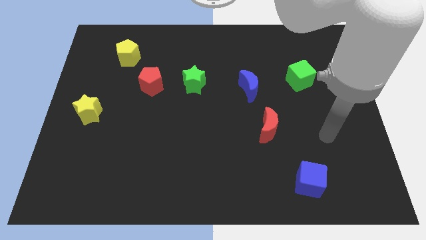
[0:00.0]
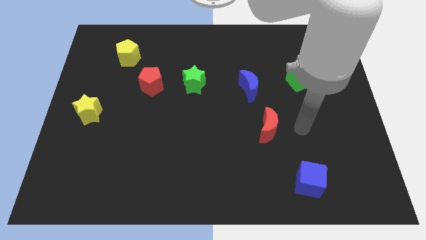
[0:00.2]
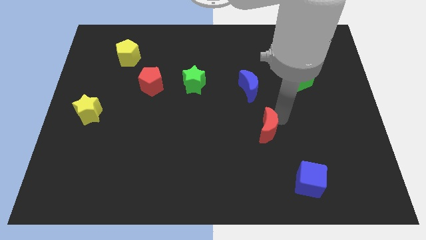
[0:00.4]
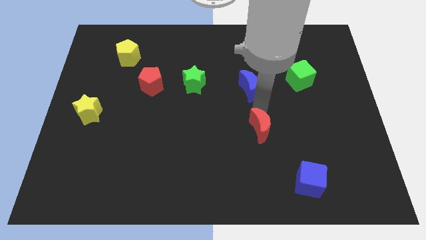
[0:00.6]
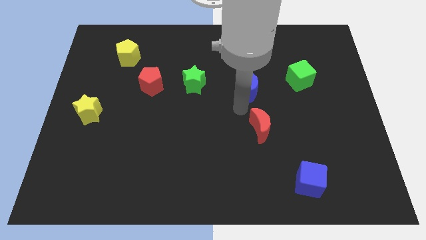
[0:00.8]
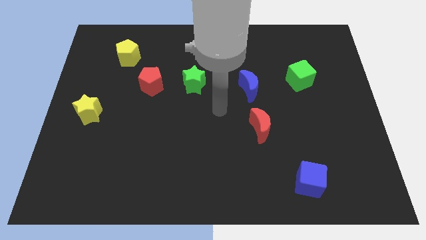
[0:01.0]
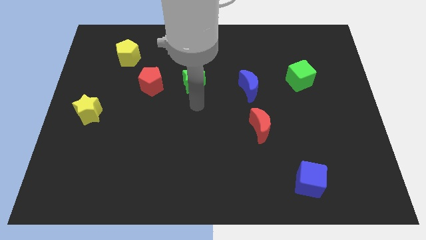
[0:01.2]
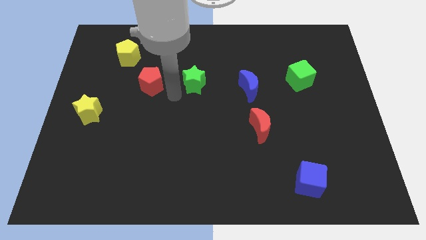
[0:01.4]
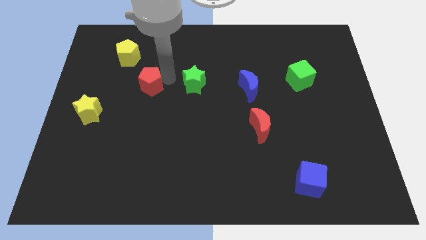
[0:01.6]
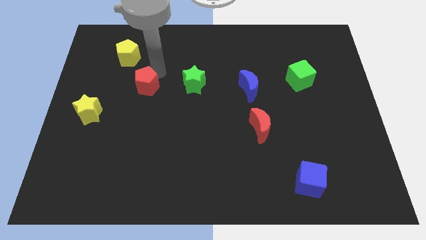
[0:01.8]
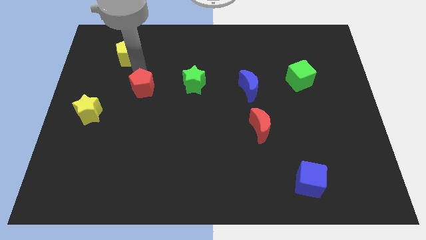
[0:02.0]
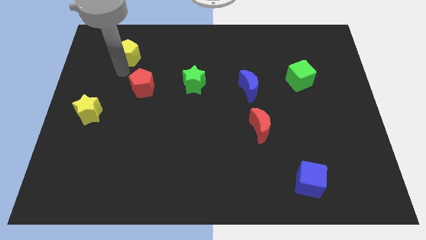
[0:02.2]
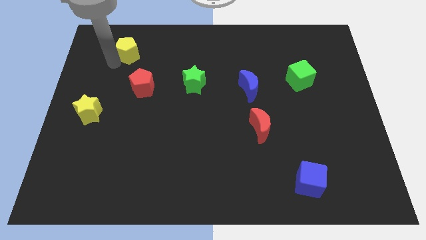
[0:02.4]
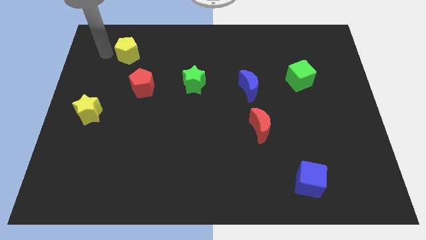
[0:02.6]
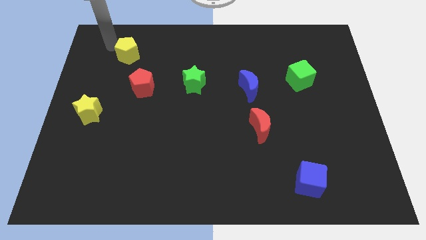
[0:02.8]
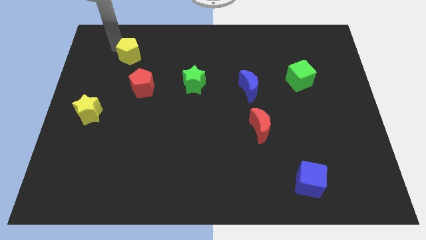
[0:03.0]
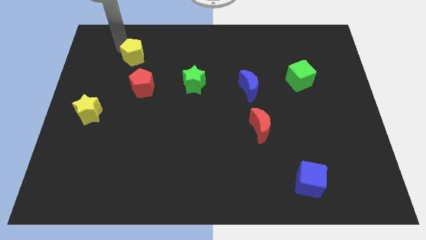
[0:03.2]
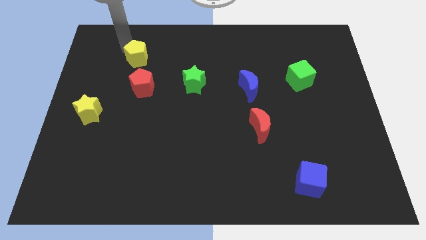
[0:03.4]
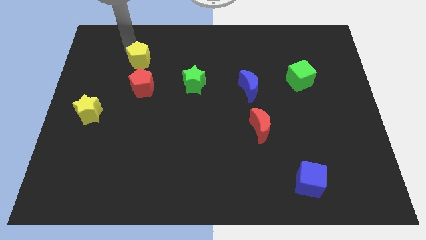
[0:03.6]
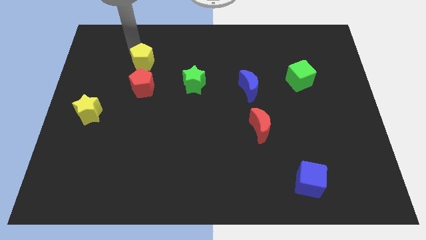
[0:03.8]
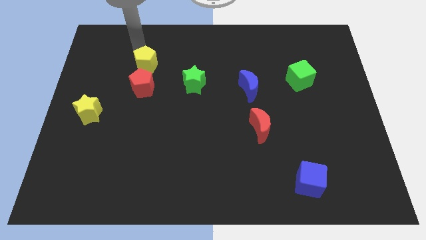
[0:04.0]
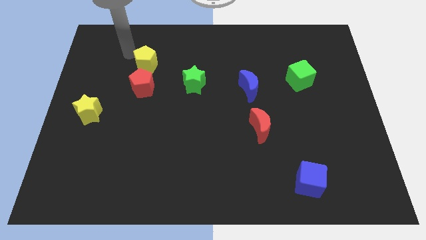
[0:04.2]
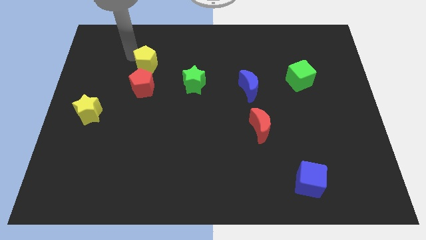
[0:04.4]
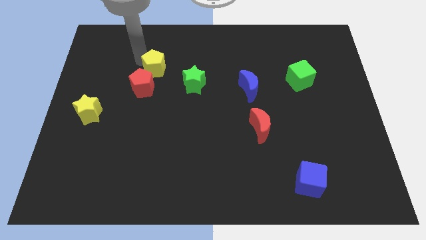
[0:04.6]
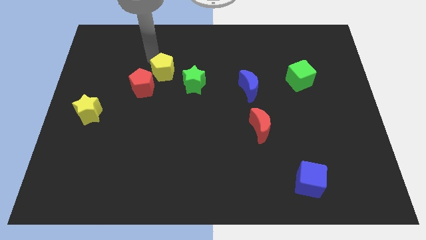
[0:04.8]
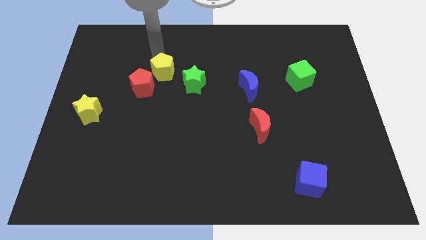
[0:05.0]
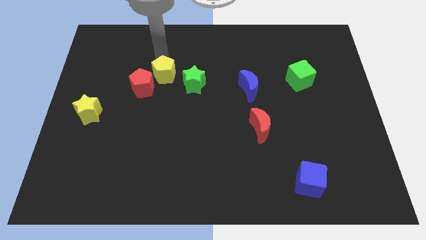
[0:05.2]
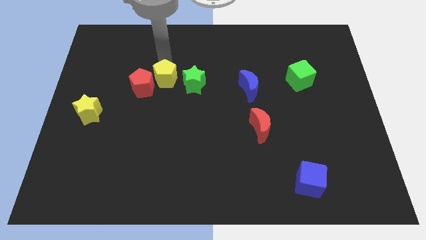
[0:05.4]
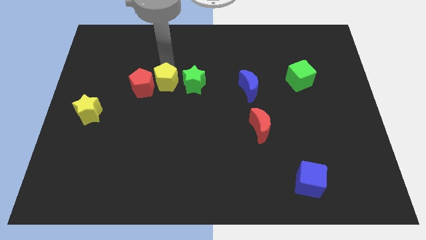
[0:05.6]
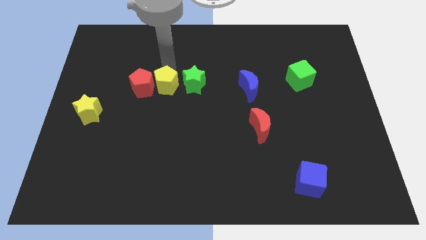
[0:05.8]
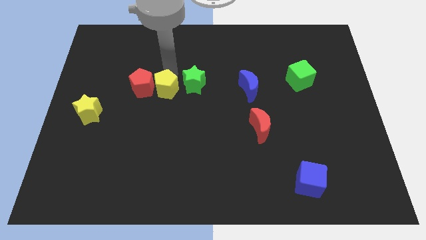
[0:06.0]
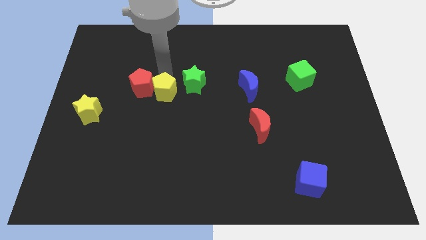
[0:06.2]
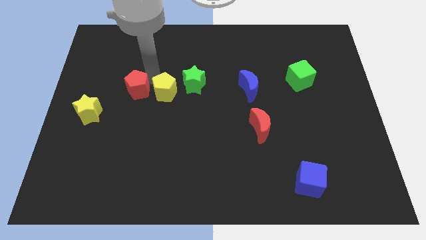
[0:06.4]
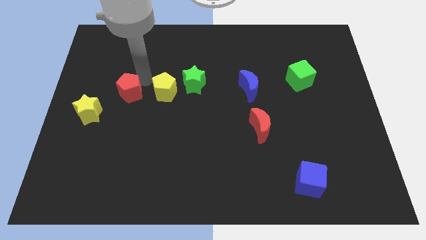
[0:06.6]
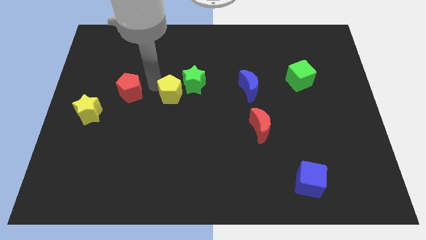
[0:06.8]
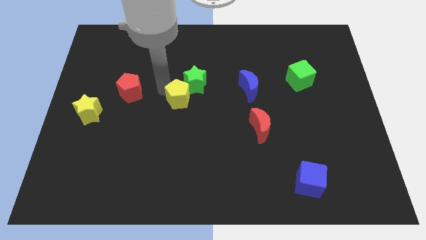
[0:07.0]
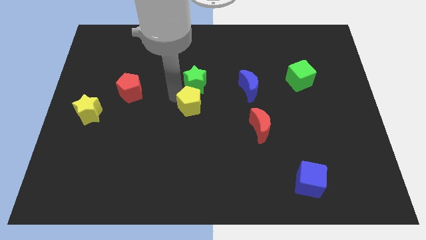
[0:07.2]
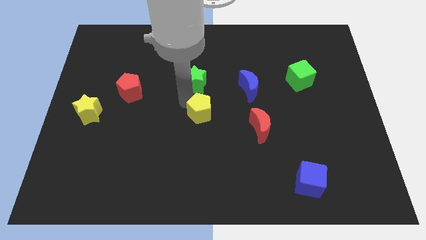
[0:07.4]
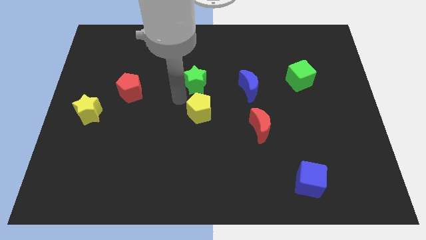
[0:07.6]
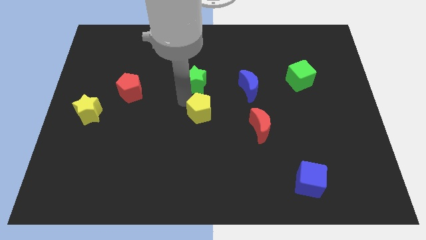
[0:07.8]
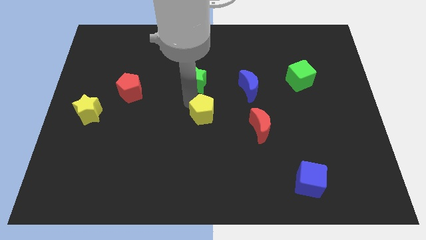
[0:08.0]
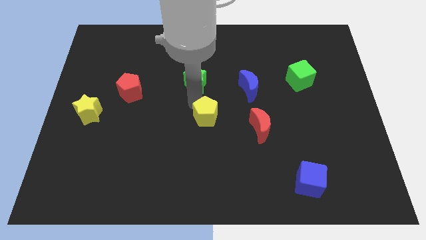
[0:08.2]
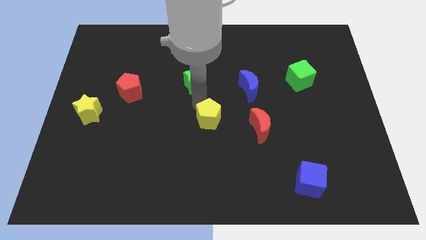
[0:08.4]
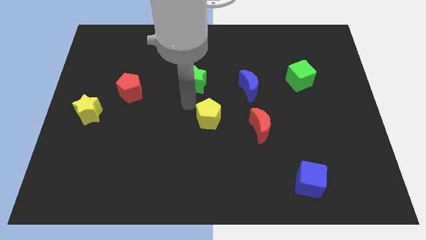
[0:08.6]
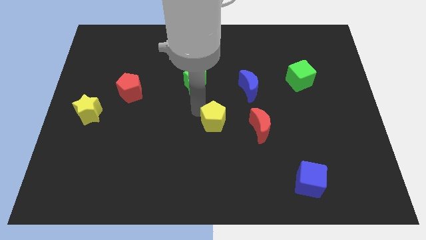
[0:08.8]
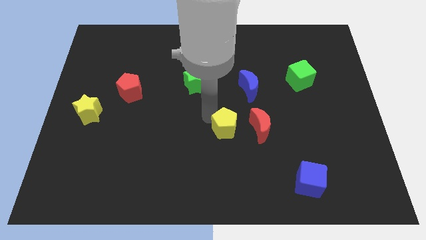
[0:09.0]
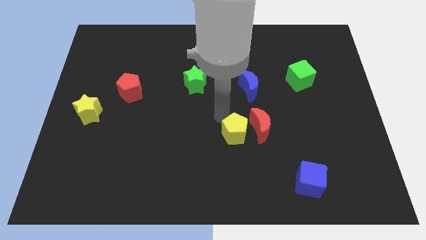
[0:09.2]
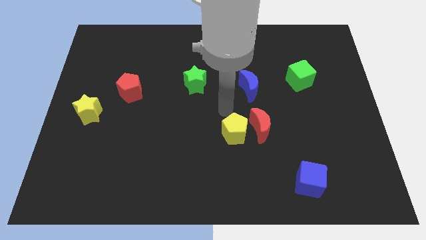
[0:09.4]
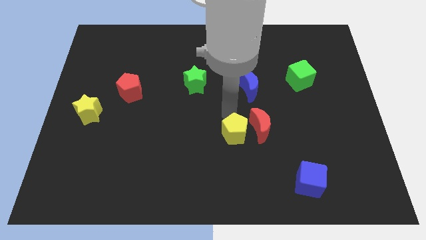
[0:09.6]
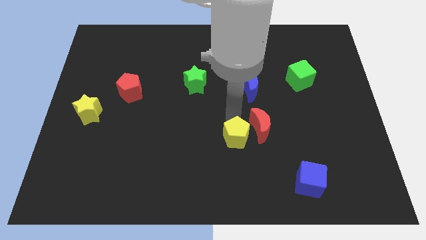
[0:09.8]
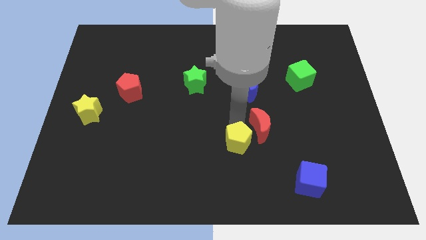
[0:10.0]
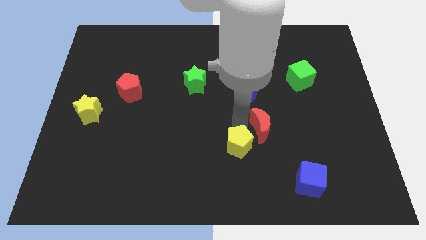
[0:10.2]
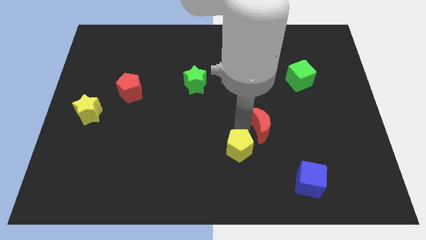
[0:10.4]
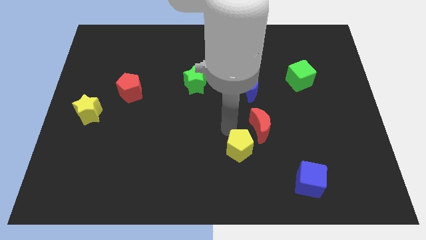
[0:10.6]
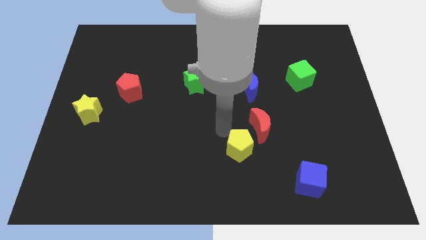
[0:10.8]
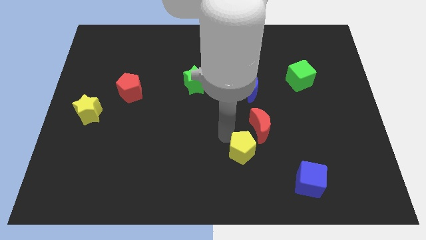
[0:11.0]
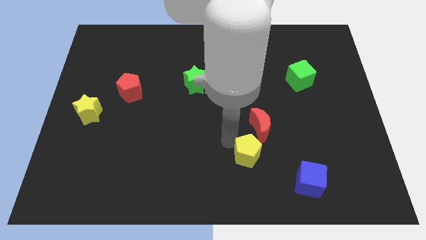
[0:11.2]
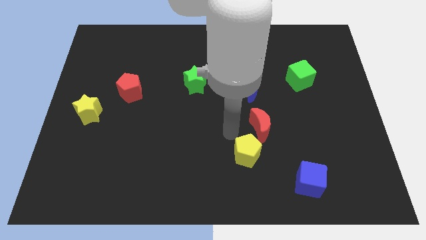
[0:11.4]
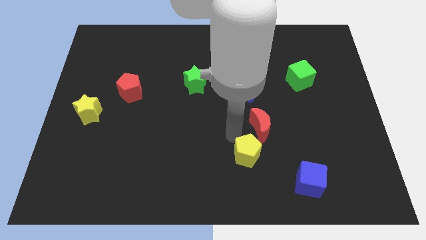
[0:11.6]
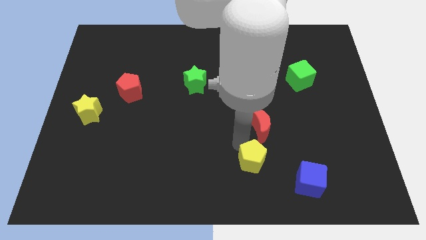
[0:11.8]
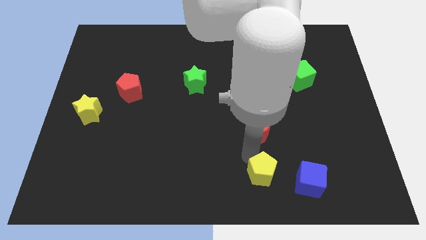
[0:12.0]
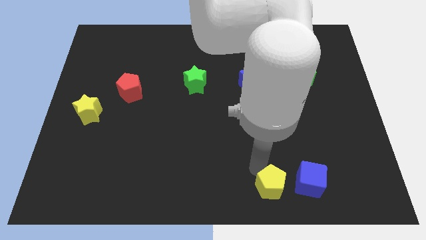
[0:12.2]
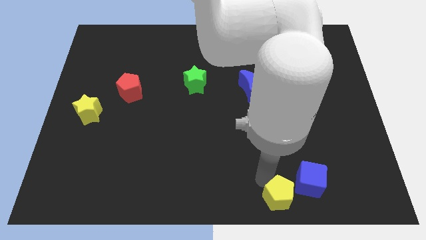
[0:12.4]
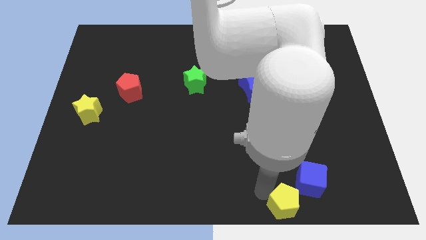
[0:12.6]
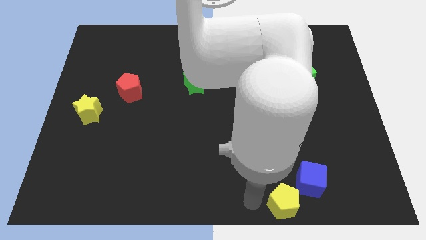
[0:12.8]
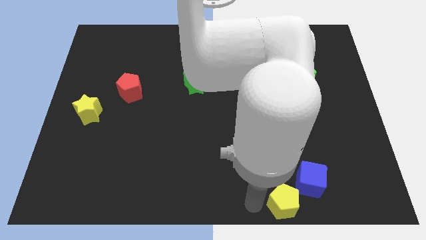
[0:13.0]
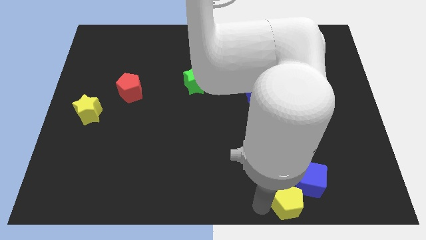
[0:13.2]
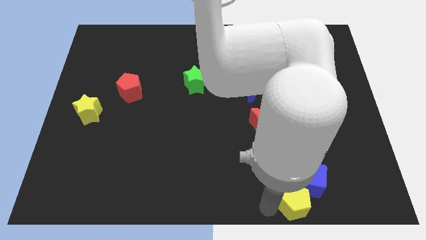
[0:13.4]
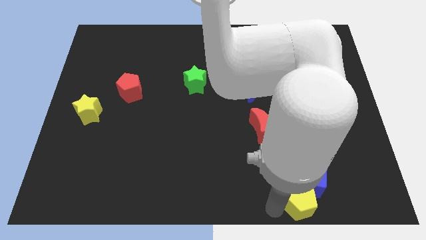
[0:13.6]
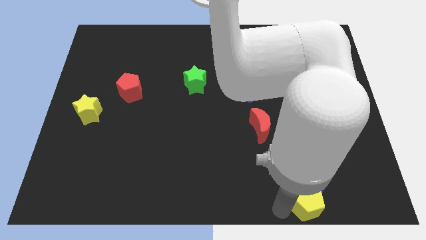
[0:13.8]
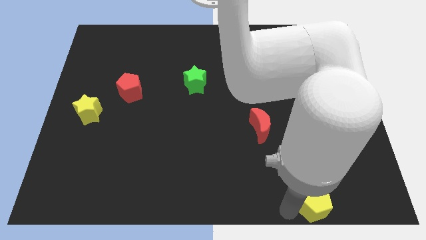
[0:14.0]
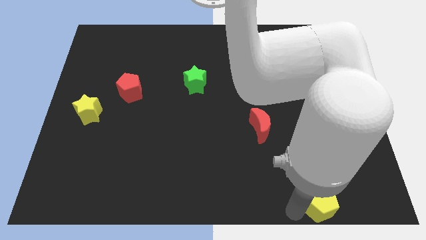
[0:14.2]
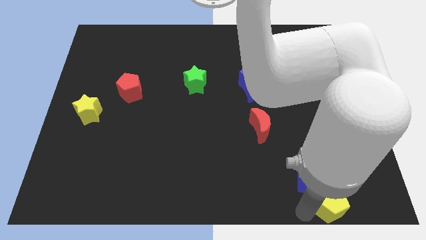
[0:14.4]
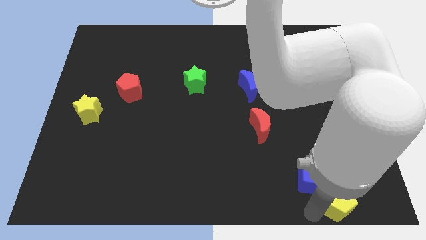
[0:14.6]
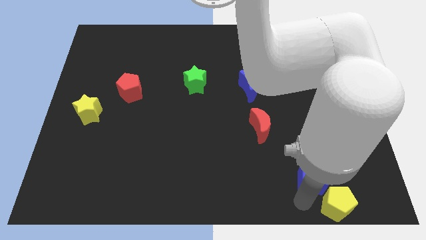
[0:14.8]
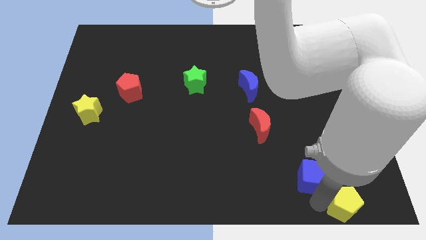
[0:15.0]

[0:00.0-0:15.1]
move the yellow pentagon to the bottom right corner
